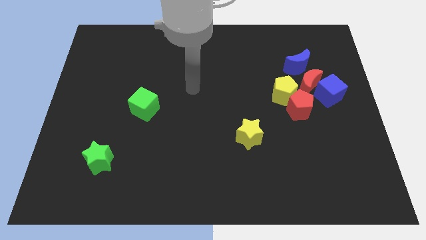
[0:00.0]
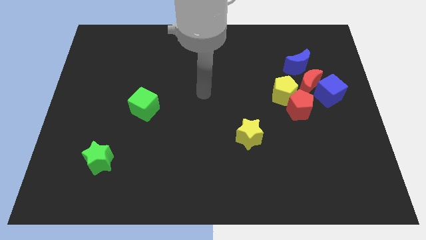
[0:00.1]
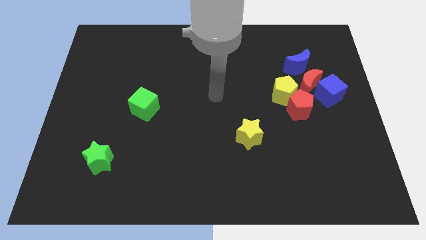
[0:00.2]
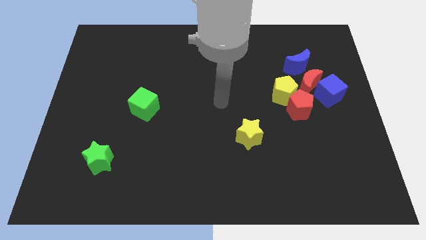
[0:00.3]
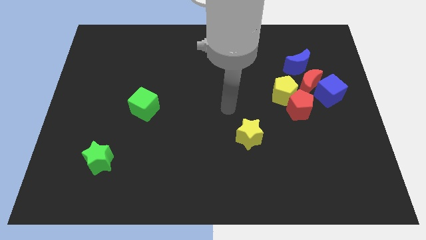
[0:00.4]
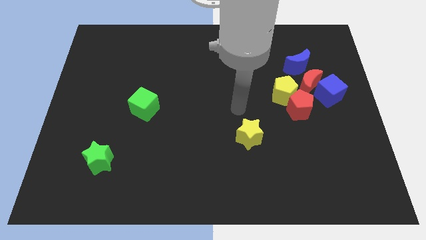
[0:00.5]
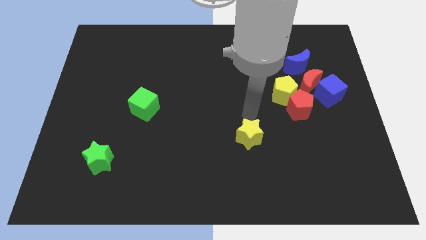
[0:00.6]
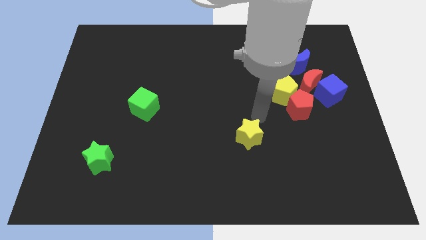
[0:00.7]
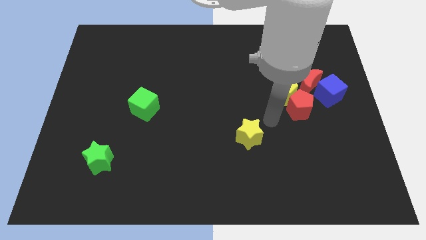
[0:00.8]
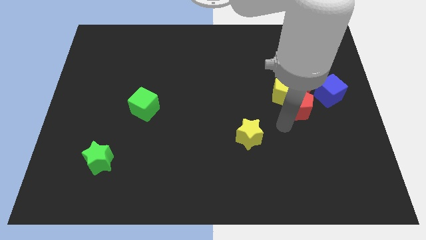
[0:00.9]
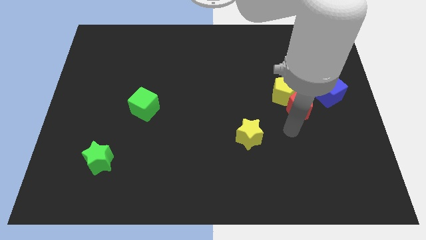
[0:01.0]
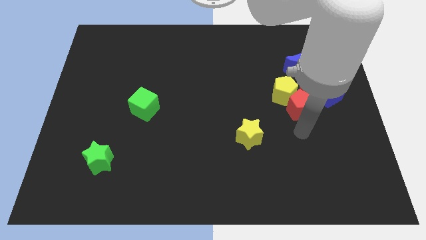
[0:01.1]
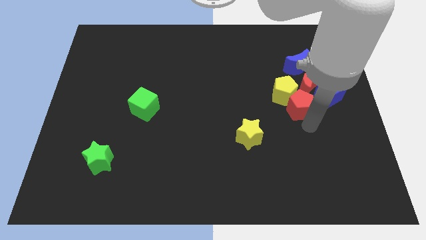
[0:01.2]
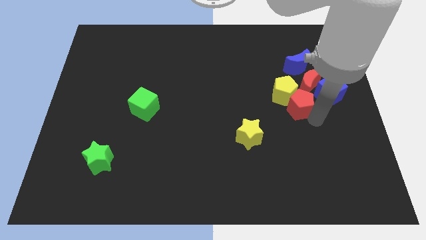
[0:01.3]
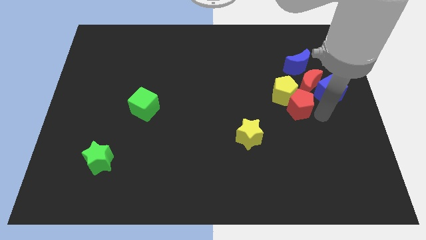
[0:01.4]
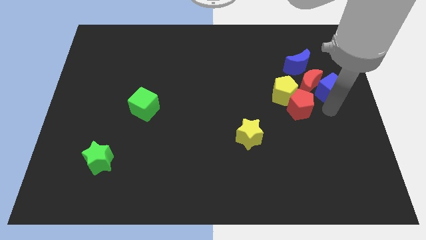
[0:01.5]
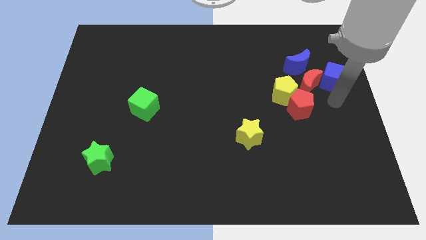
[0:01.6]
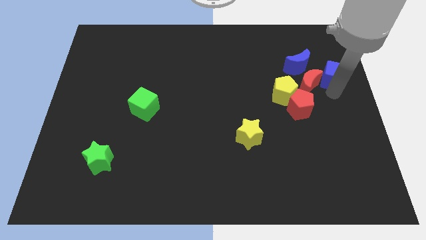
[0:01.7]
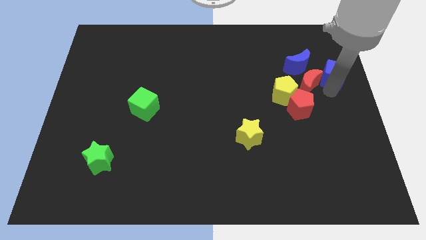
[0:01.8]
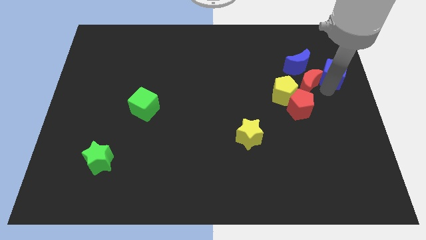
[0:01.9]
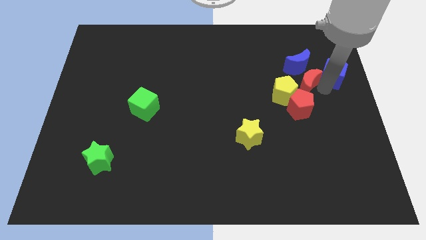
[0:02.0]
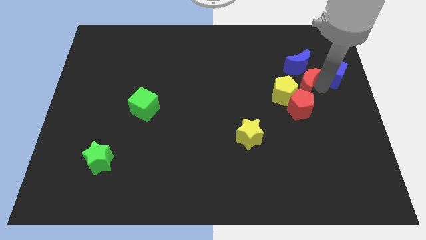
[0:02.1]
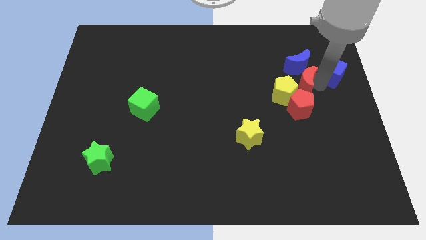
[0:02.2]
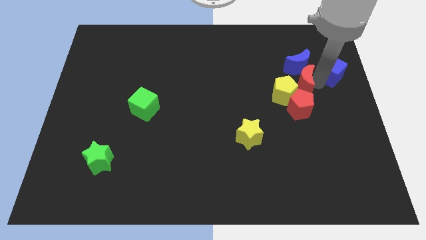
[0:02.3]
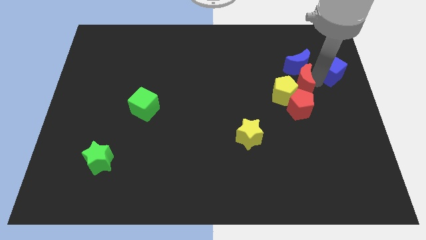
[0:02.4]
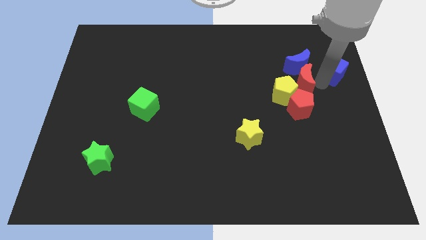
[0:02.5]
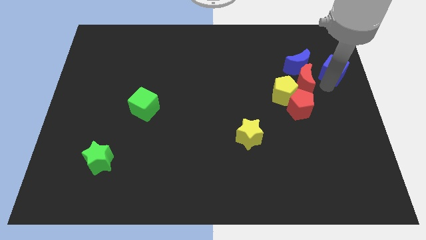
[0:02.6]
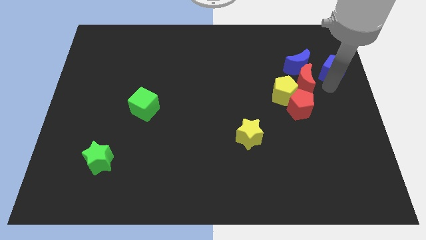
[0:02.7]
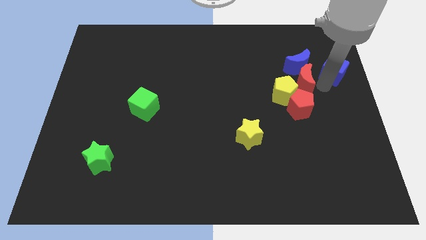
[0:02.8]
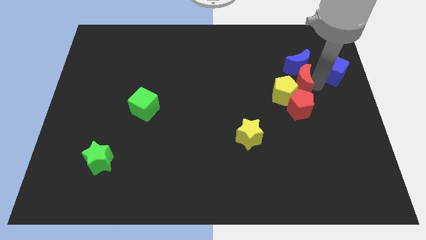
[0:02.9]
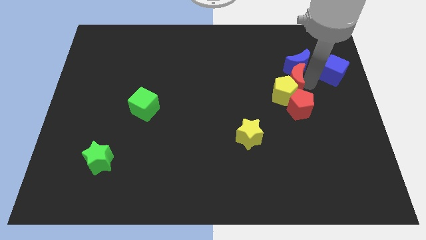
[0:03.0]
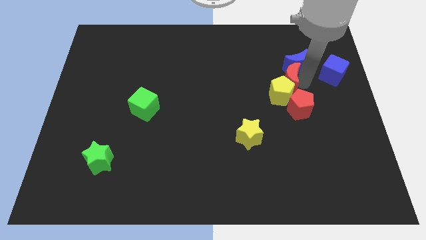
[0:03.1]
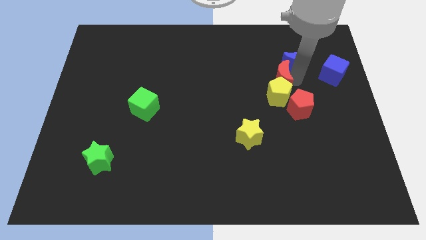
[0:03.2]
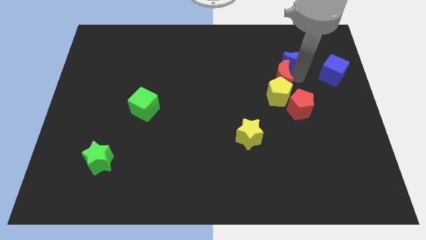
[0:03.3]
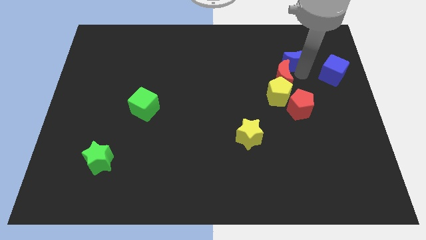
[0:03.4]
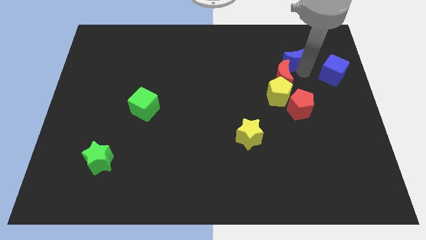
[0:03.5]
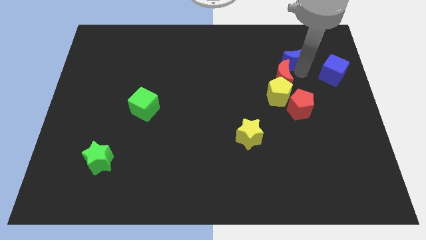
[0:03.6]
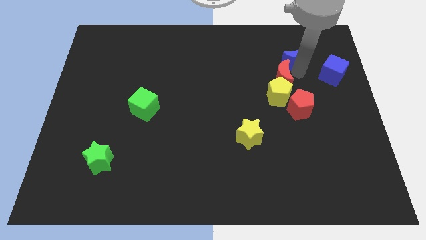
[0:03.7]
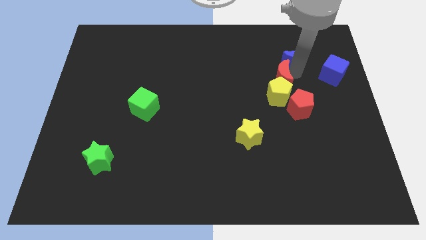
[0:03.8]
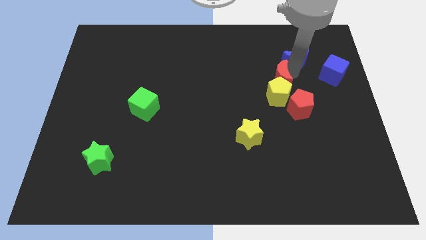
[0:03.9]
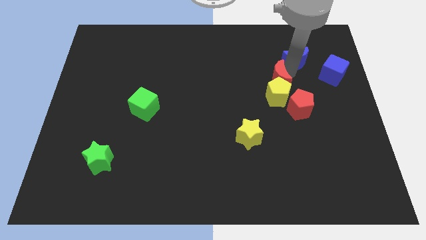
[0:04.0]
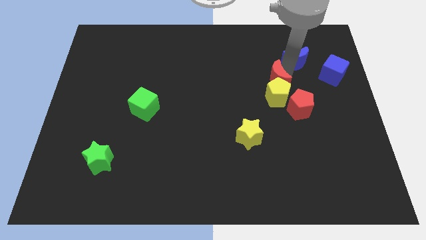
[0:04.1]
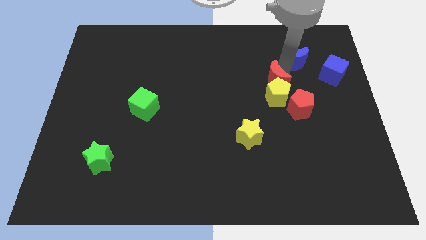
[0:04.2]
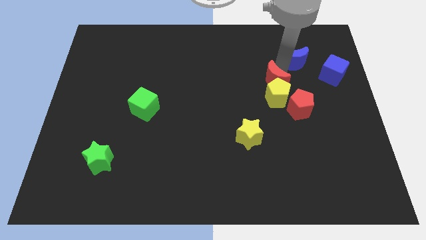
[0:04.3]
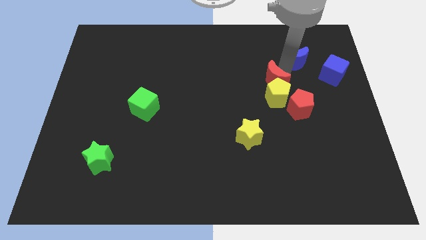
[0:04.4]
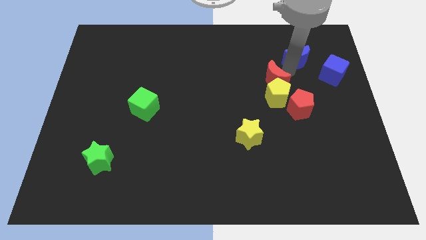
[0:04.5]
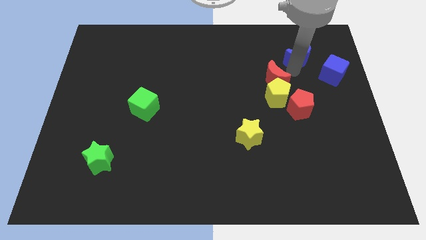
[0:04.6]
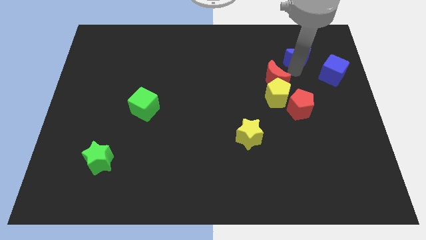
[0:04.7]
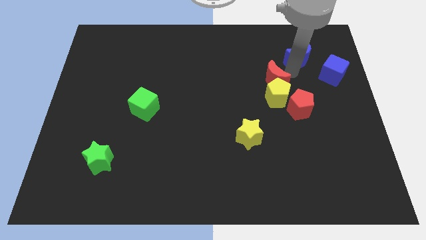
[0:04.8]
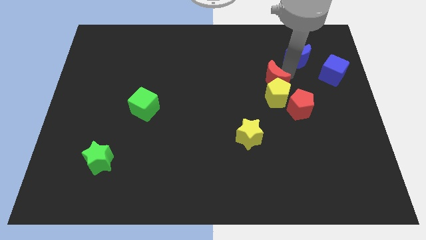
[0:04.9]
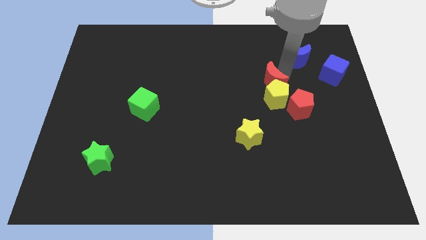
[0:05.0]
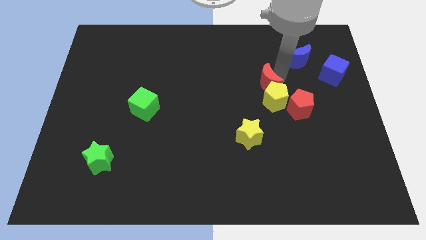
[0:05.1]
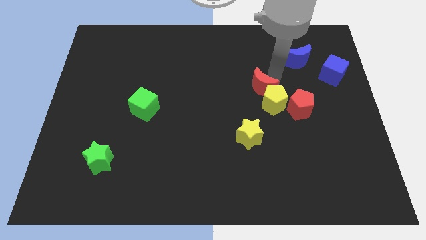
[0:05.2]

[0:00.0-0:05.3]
move the red moon to the center
